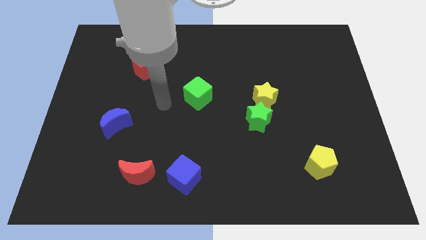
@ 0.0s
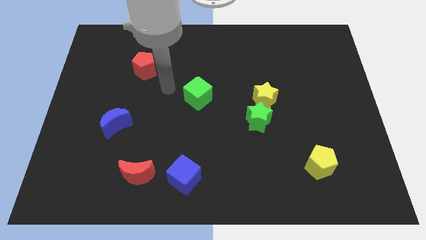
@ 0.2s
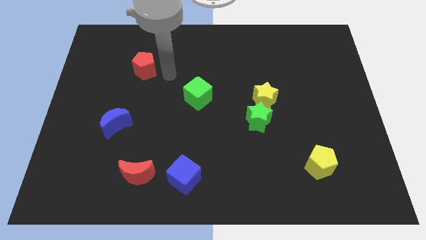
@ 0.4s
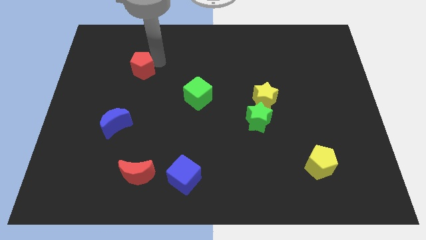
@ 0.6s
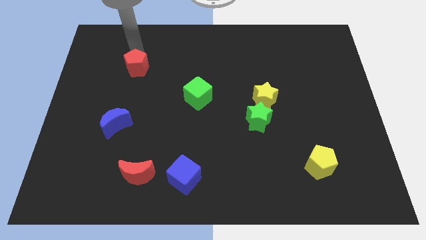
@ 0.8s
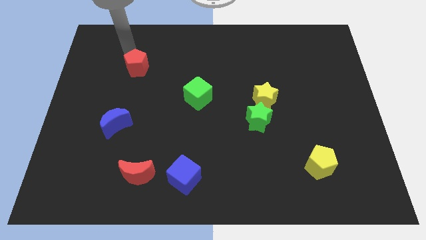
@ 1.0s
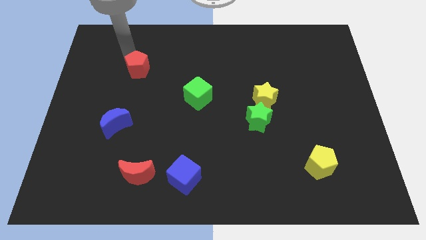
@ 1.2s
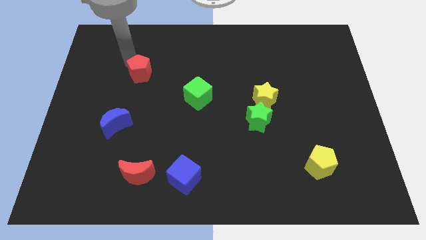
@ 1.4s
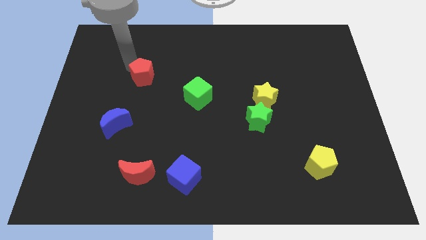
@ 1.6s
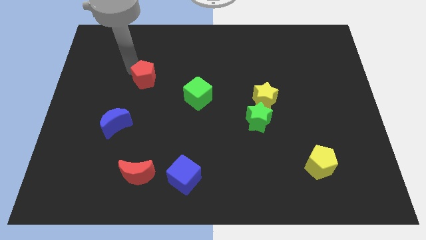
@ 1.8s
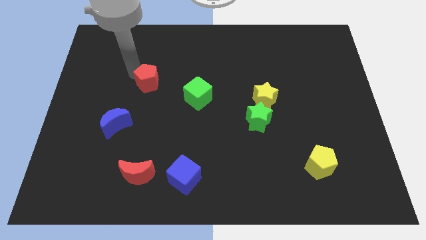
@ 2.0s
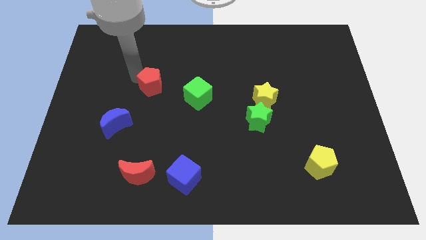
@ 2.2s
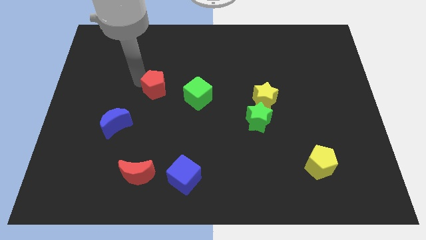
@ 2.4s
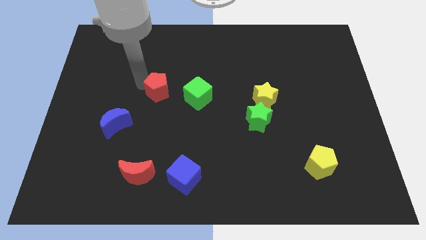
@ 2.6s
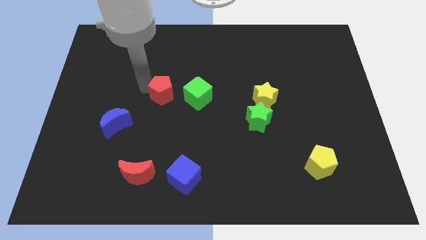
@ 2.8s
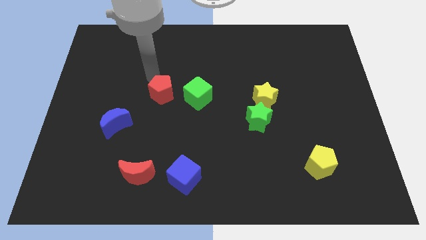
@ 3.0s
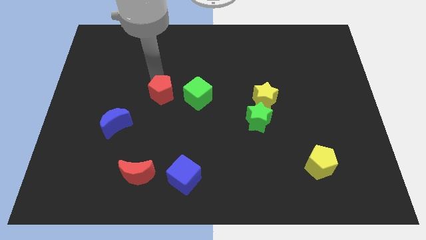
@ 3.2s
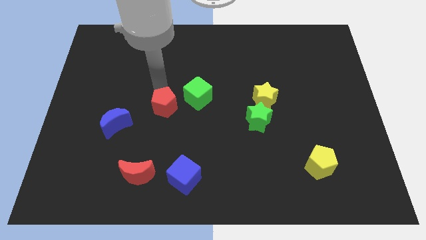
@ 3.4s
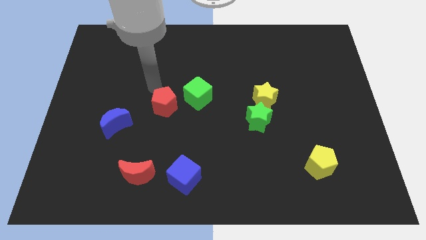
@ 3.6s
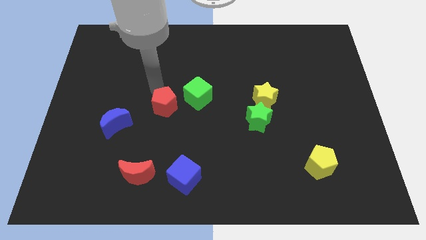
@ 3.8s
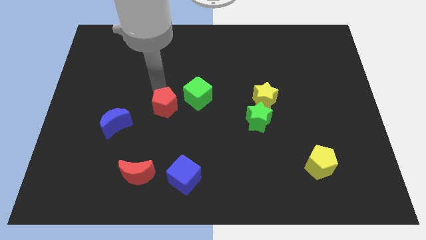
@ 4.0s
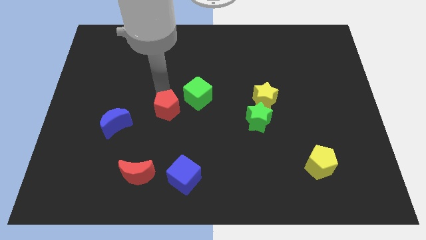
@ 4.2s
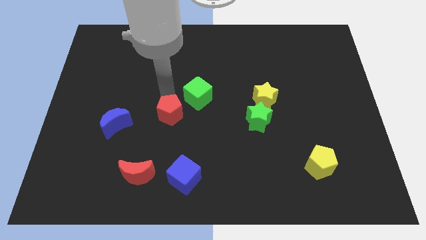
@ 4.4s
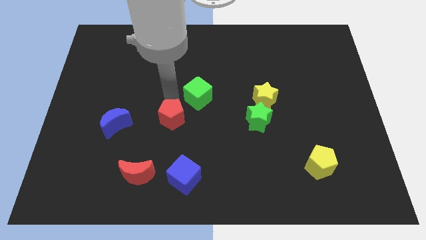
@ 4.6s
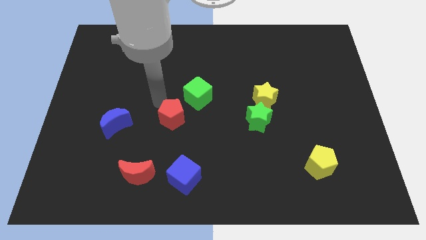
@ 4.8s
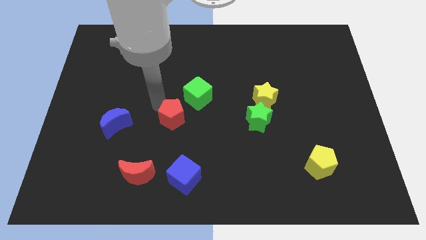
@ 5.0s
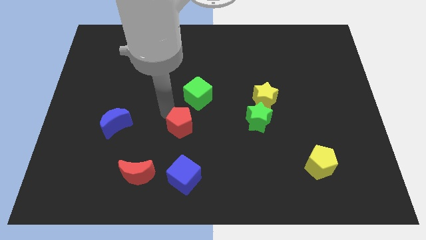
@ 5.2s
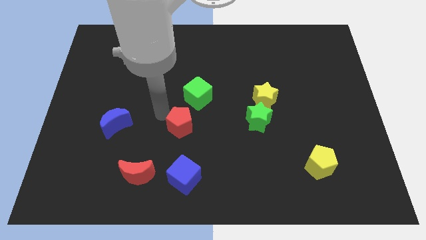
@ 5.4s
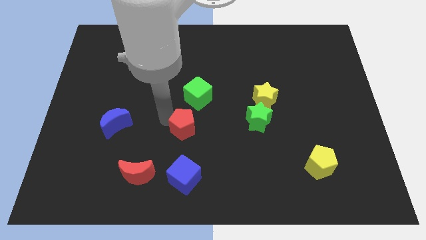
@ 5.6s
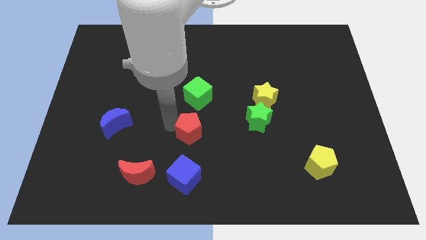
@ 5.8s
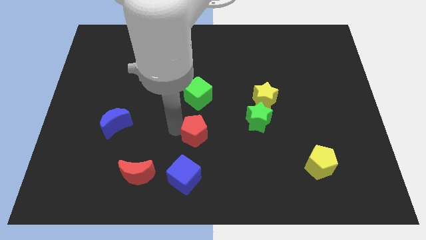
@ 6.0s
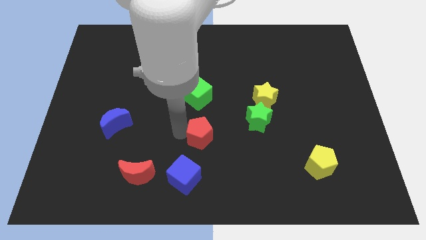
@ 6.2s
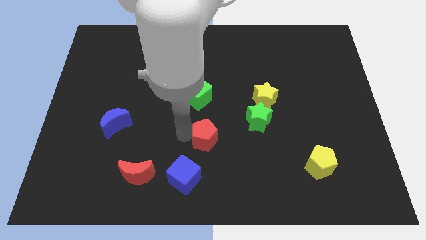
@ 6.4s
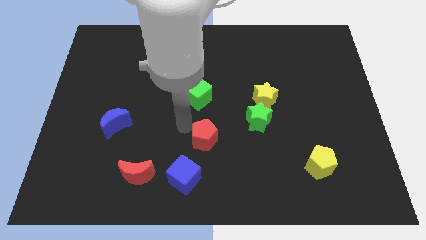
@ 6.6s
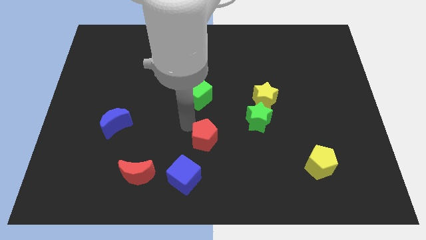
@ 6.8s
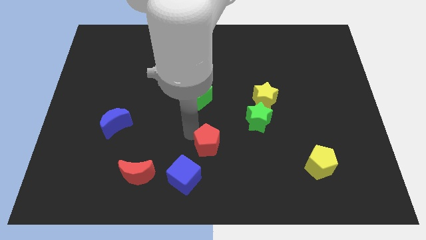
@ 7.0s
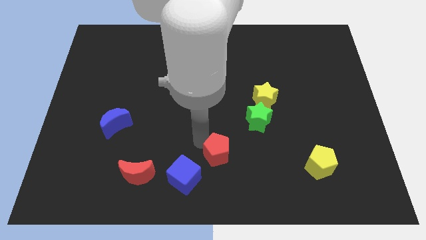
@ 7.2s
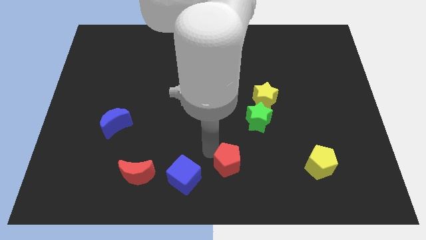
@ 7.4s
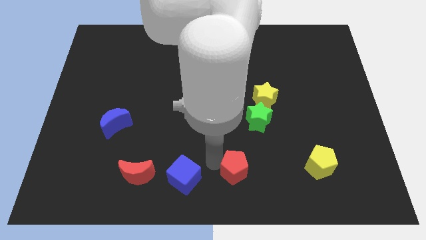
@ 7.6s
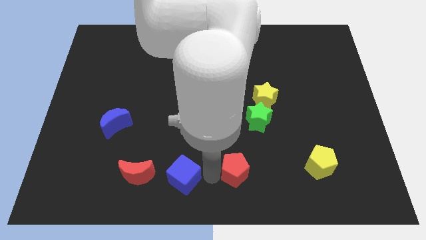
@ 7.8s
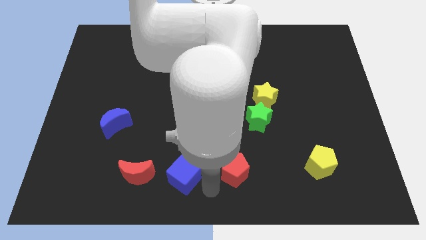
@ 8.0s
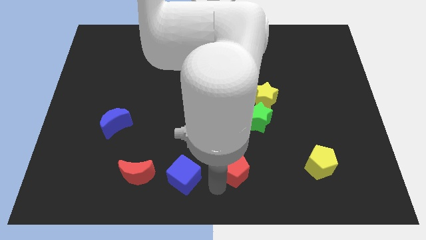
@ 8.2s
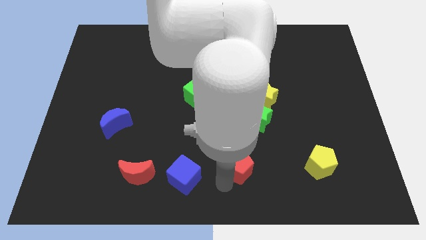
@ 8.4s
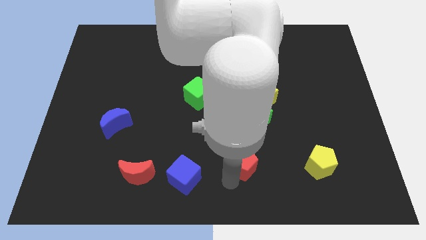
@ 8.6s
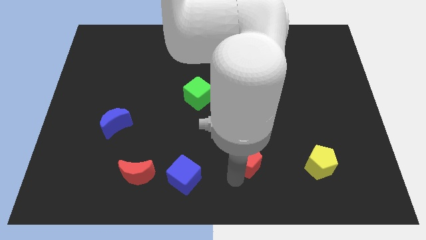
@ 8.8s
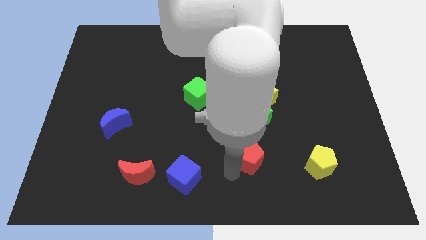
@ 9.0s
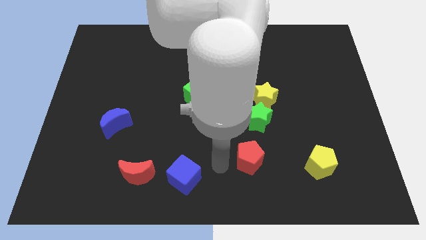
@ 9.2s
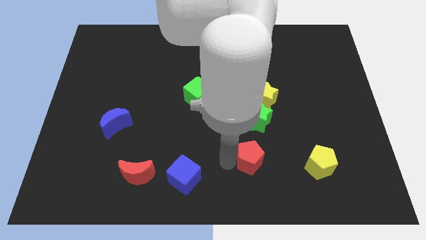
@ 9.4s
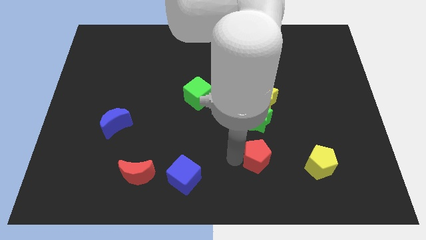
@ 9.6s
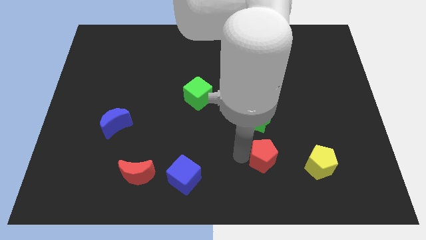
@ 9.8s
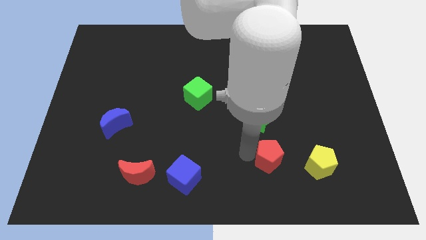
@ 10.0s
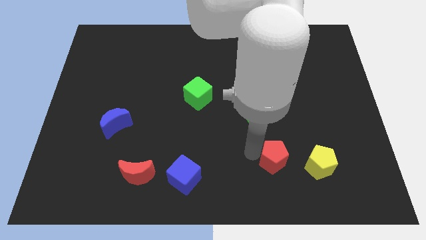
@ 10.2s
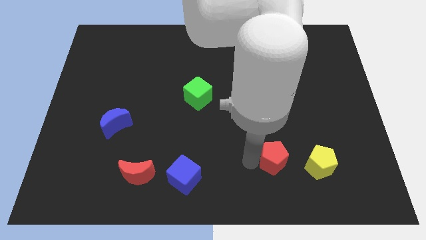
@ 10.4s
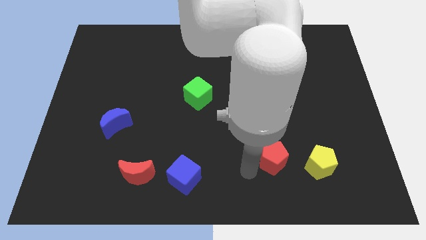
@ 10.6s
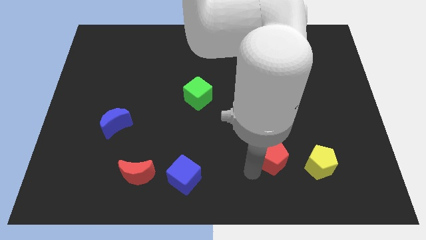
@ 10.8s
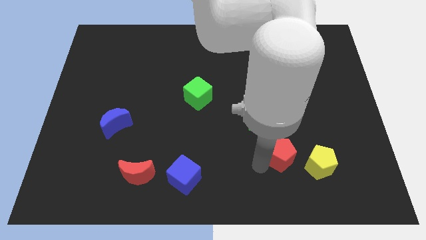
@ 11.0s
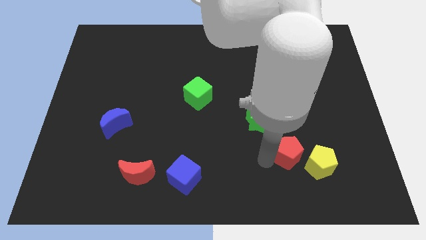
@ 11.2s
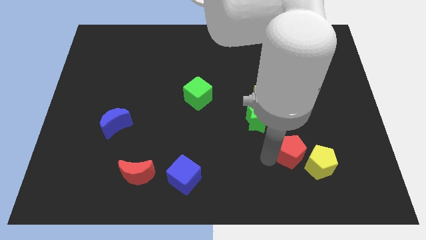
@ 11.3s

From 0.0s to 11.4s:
put the red pentagon next to the yellow pentagon

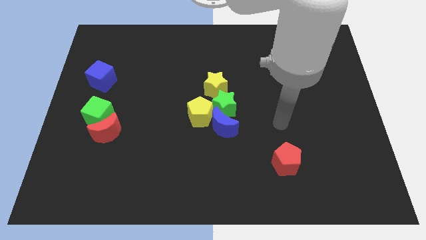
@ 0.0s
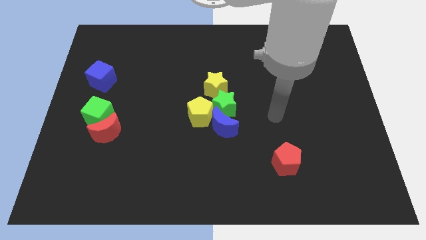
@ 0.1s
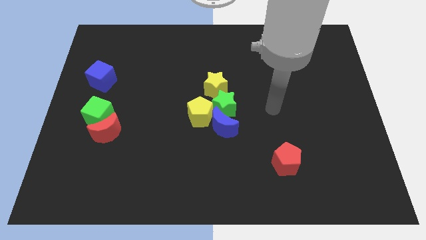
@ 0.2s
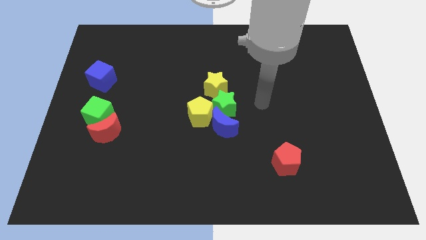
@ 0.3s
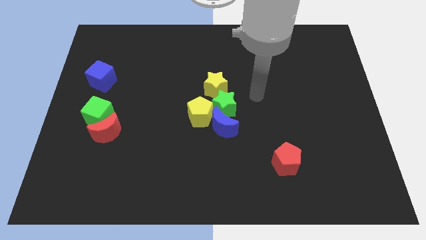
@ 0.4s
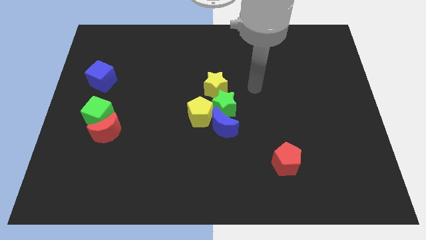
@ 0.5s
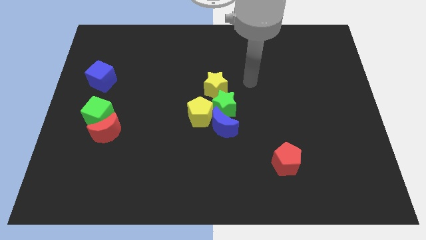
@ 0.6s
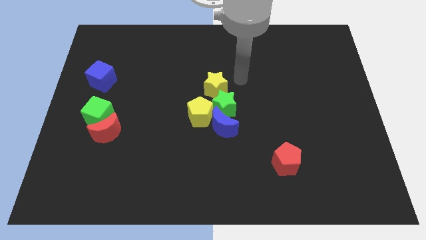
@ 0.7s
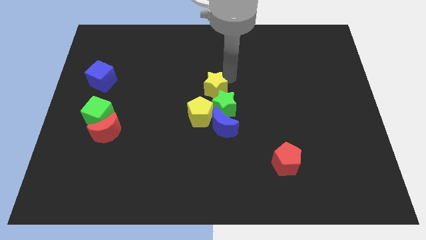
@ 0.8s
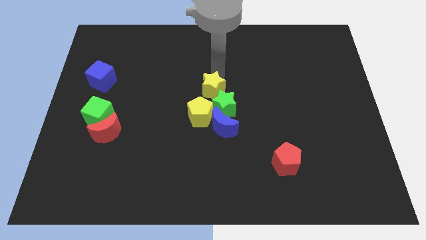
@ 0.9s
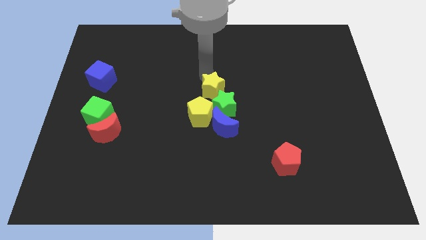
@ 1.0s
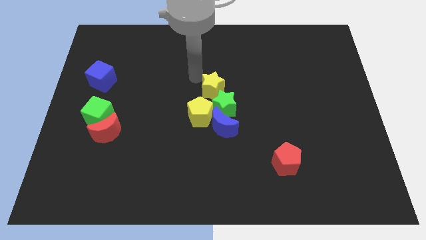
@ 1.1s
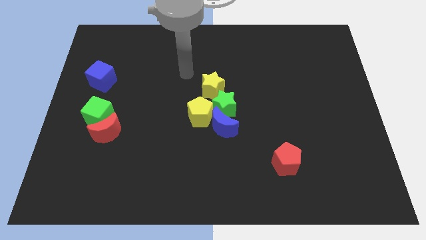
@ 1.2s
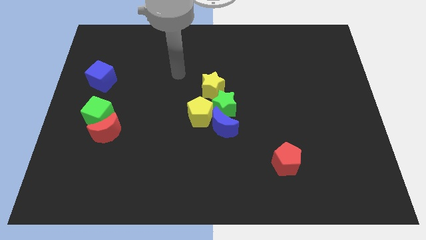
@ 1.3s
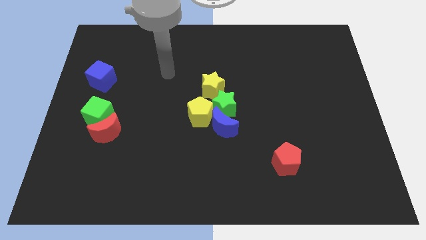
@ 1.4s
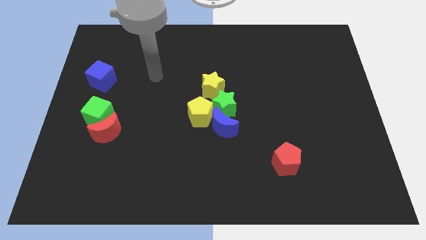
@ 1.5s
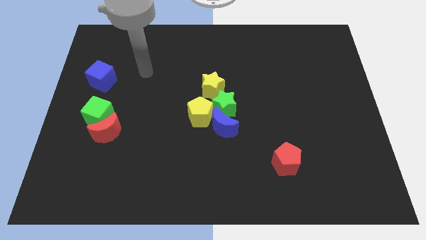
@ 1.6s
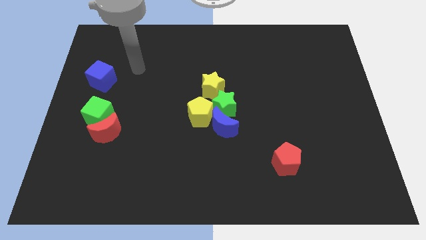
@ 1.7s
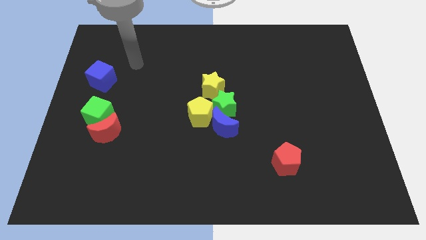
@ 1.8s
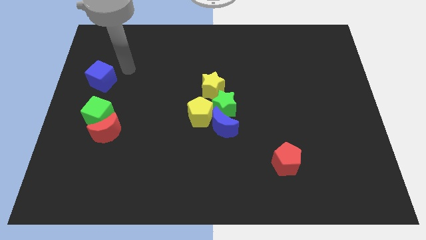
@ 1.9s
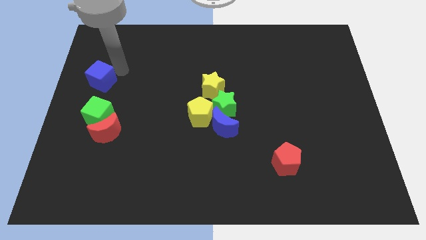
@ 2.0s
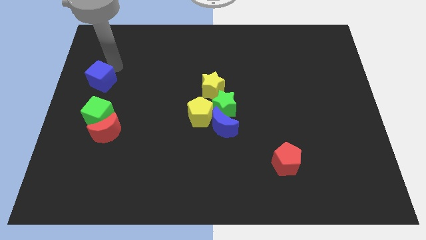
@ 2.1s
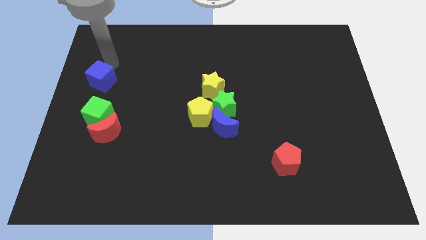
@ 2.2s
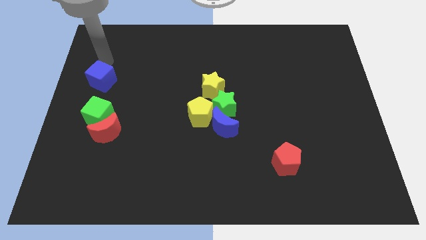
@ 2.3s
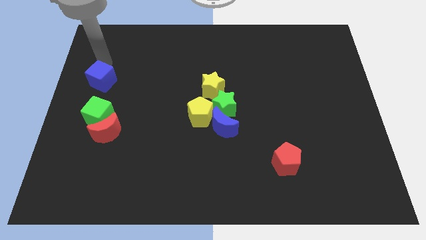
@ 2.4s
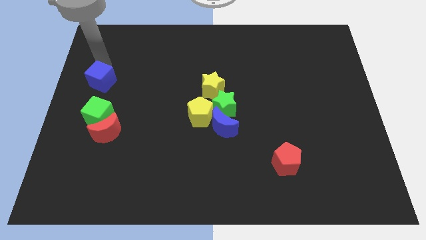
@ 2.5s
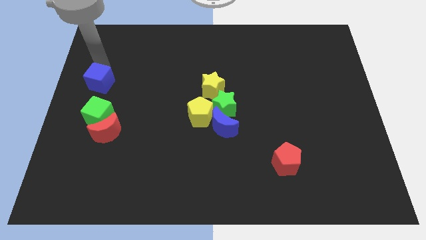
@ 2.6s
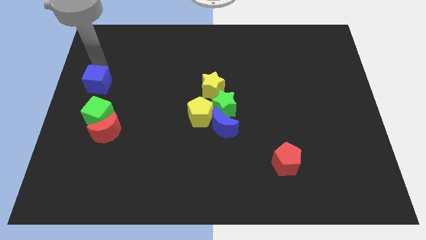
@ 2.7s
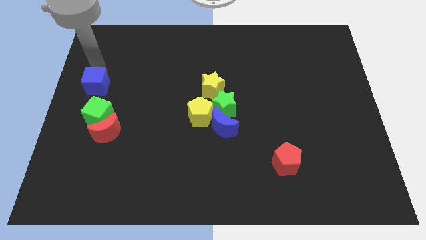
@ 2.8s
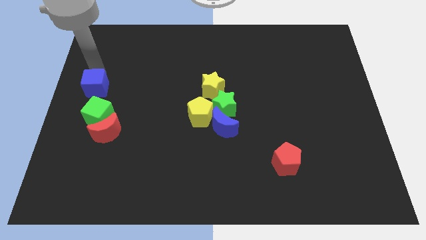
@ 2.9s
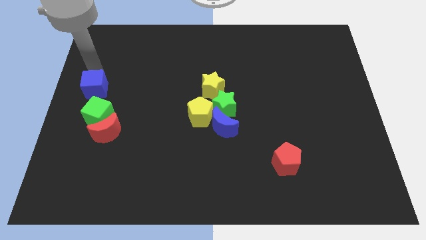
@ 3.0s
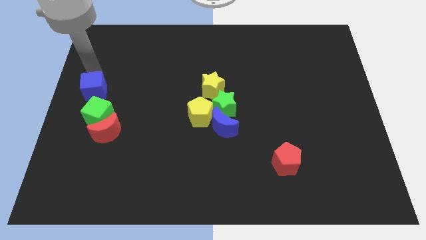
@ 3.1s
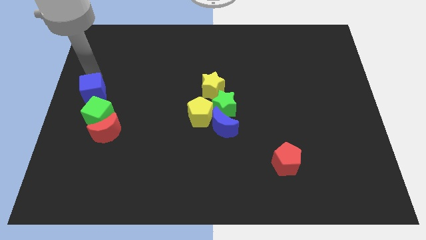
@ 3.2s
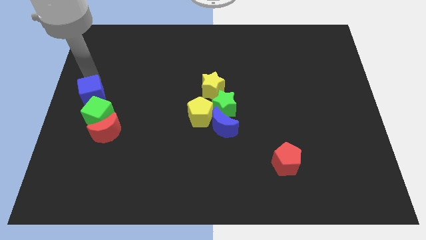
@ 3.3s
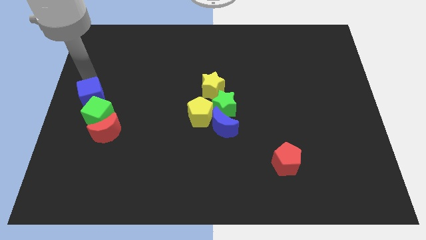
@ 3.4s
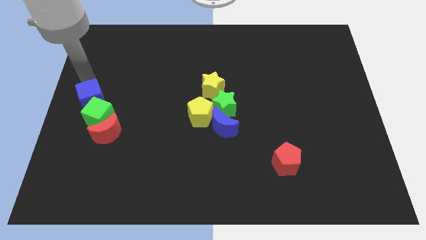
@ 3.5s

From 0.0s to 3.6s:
move the blue cube close to the green cube
